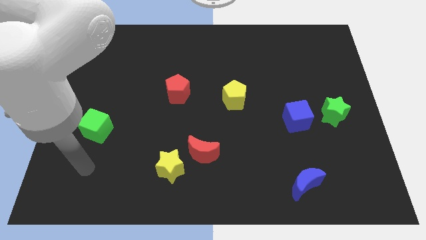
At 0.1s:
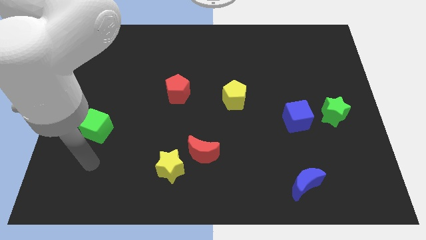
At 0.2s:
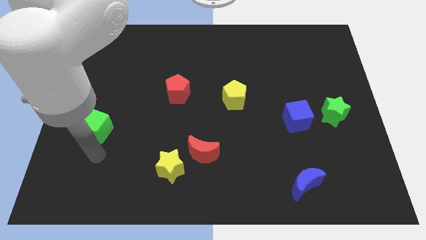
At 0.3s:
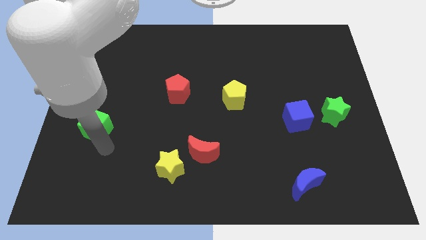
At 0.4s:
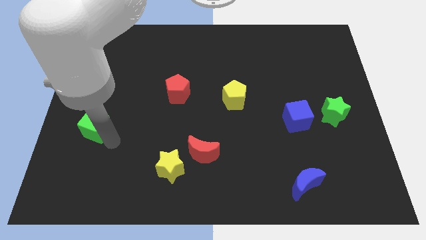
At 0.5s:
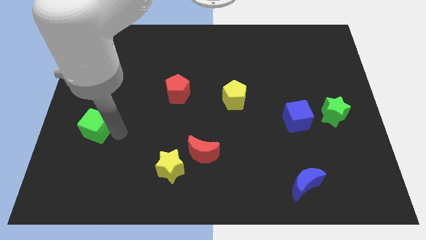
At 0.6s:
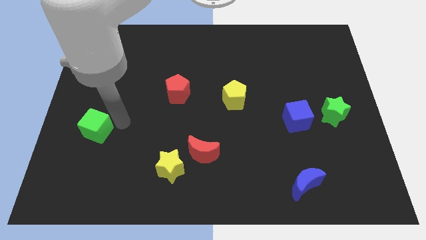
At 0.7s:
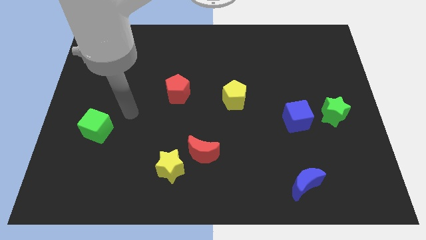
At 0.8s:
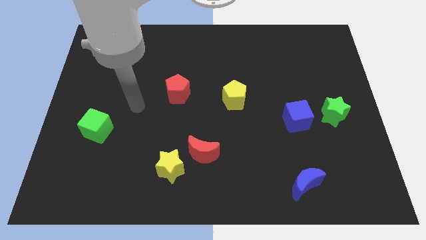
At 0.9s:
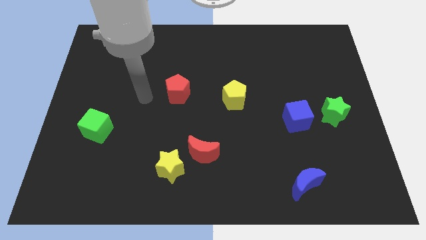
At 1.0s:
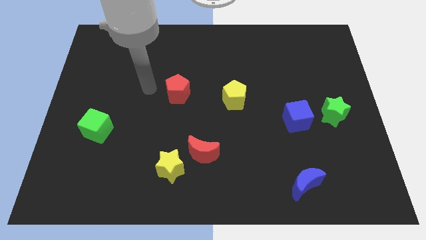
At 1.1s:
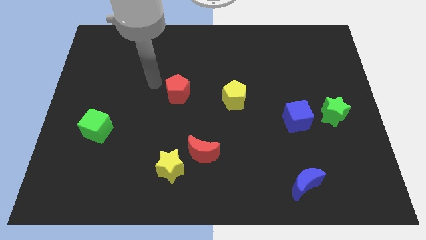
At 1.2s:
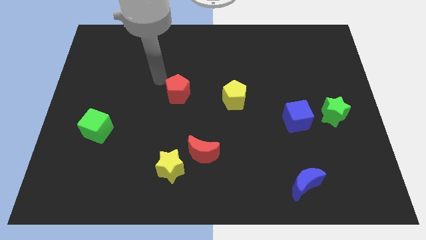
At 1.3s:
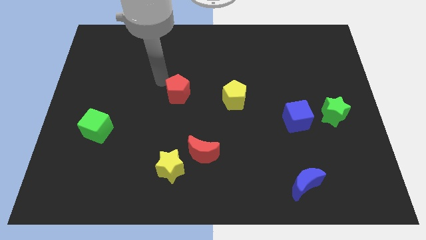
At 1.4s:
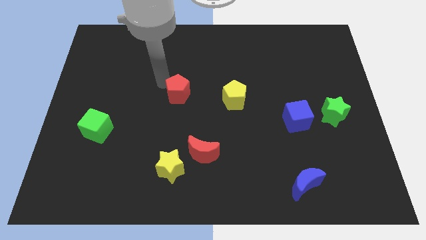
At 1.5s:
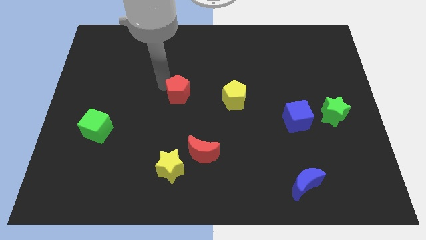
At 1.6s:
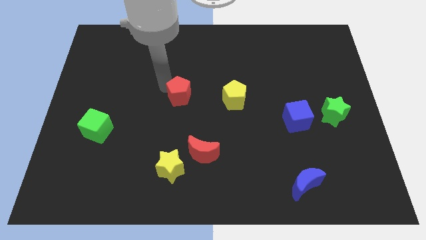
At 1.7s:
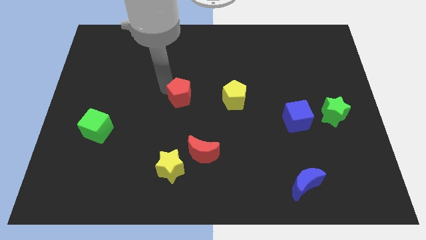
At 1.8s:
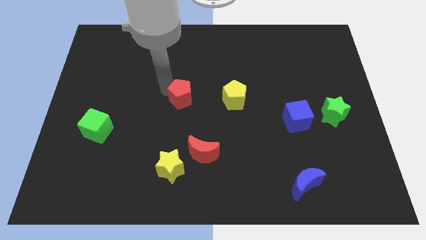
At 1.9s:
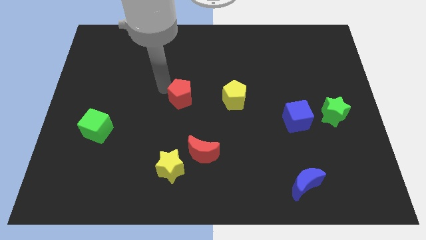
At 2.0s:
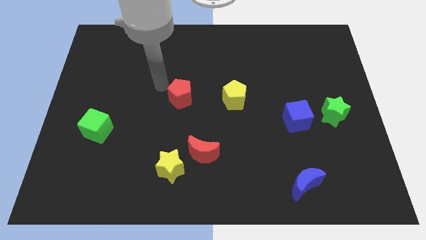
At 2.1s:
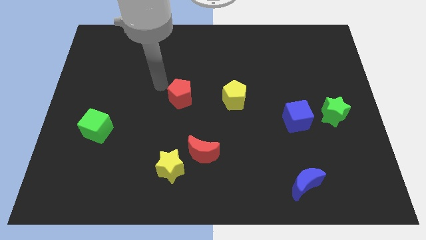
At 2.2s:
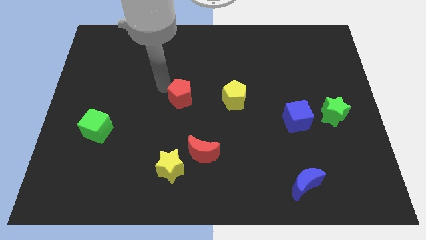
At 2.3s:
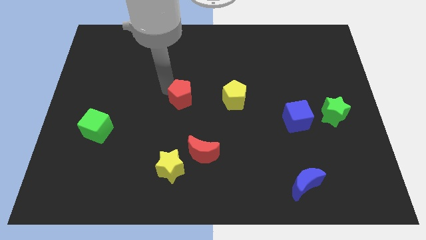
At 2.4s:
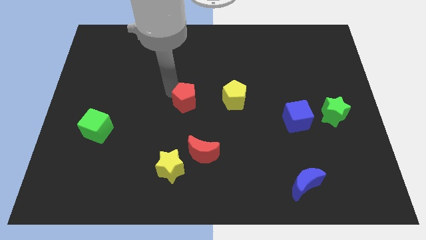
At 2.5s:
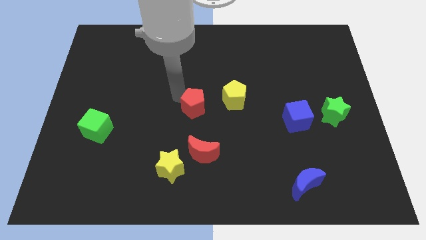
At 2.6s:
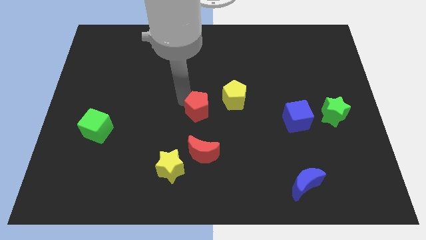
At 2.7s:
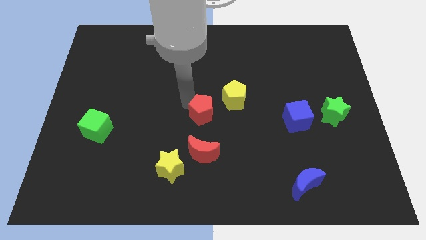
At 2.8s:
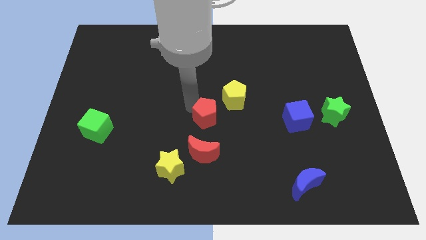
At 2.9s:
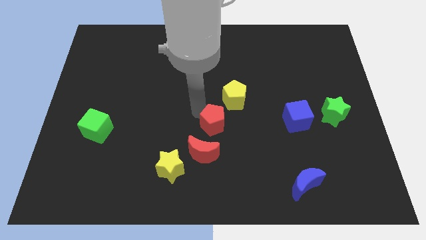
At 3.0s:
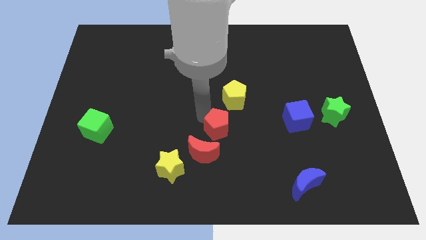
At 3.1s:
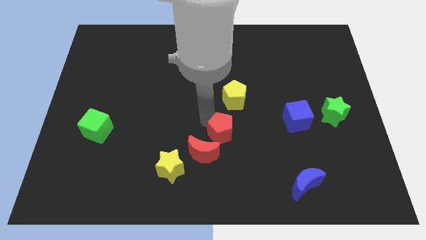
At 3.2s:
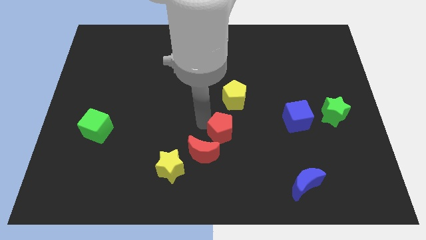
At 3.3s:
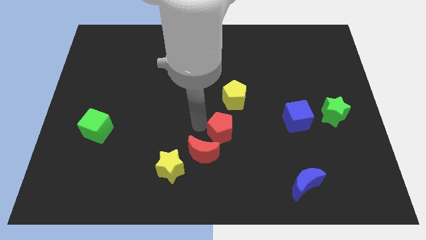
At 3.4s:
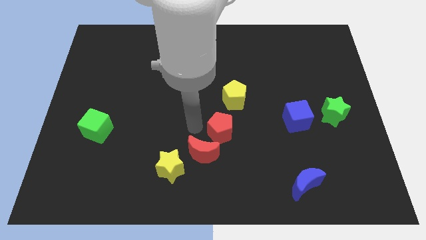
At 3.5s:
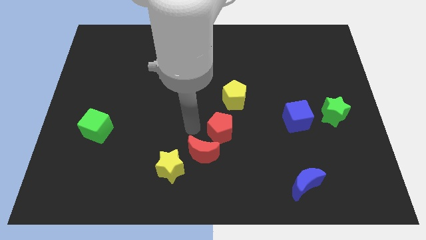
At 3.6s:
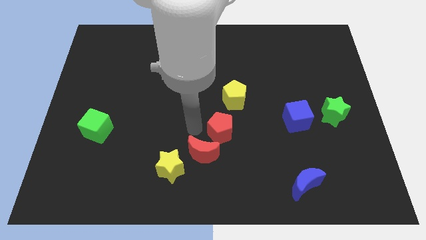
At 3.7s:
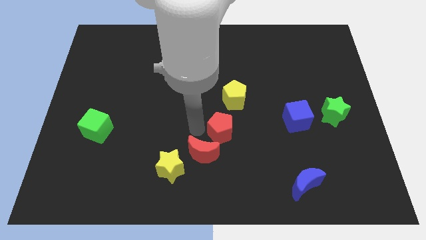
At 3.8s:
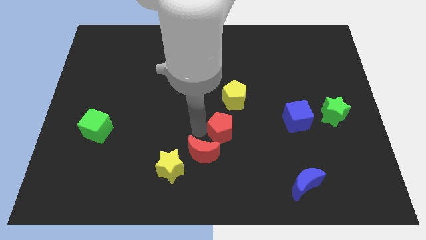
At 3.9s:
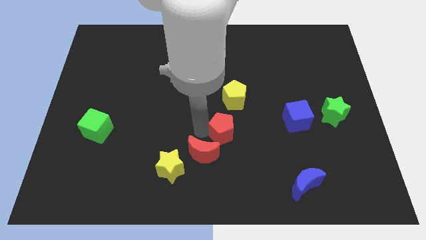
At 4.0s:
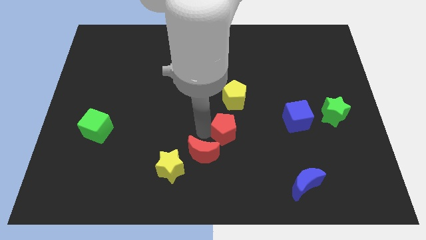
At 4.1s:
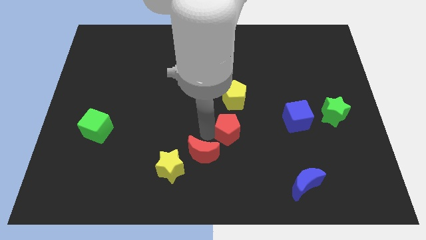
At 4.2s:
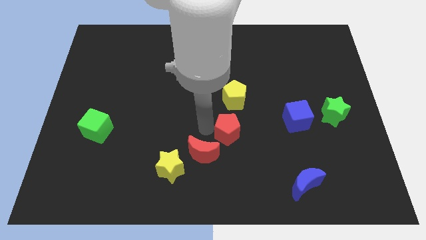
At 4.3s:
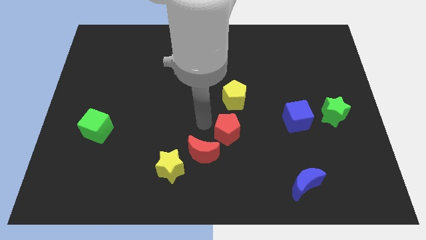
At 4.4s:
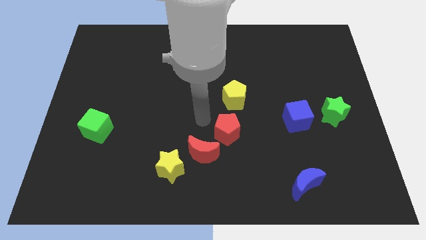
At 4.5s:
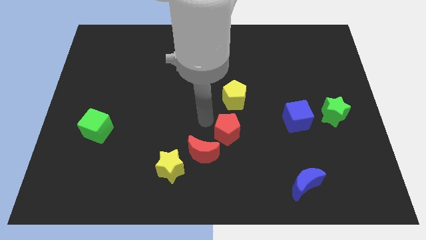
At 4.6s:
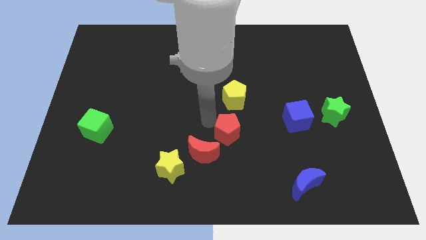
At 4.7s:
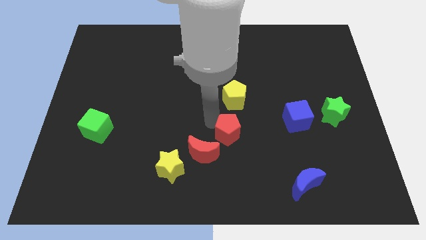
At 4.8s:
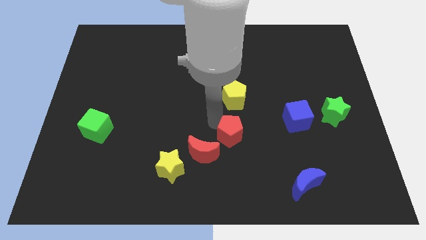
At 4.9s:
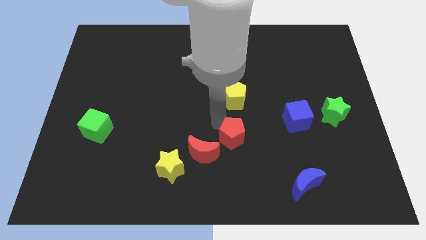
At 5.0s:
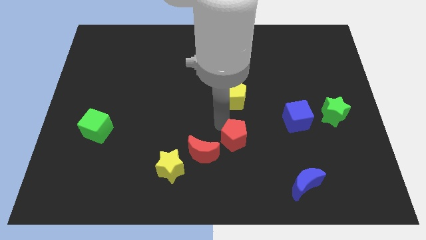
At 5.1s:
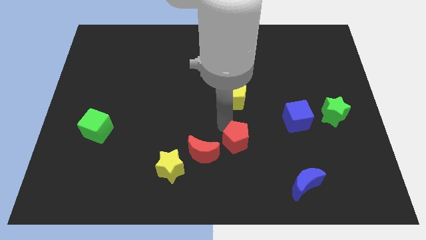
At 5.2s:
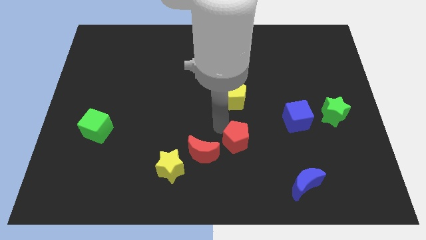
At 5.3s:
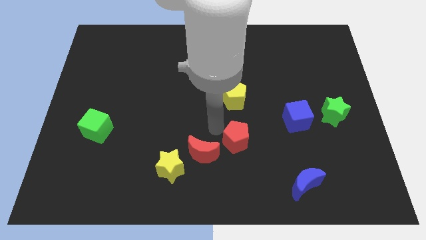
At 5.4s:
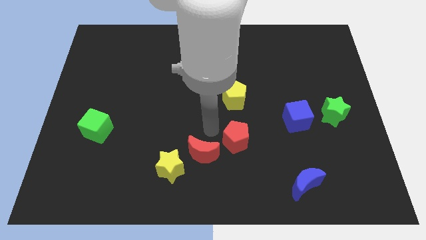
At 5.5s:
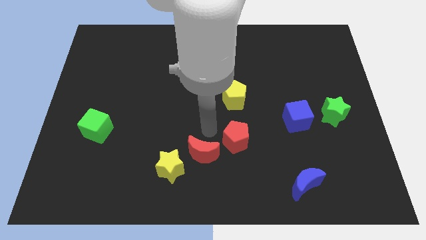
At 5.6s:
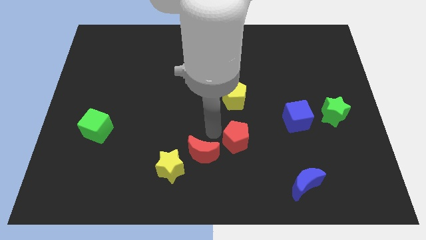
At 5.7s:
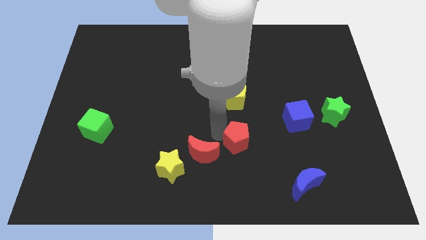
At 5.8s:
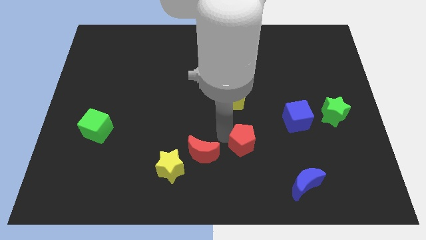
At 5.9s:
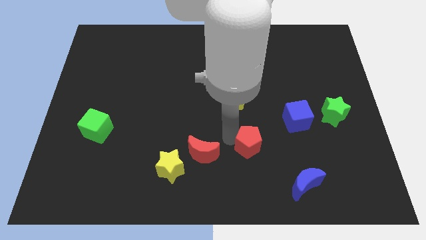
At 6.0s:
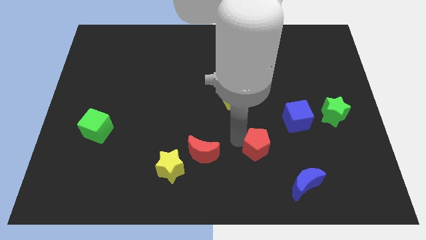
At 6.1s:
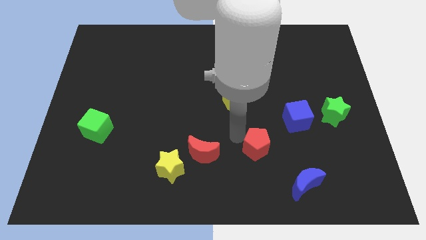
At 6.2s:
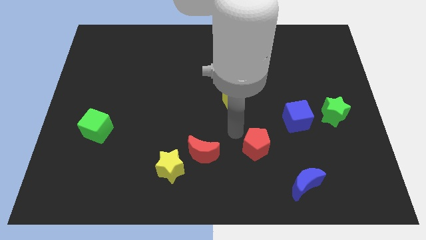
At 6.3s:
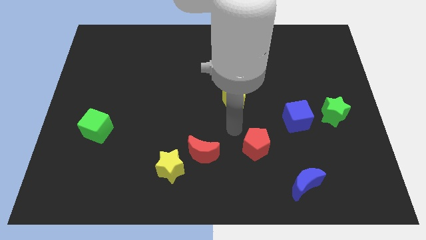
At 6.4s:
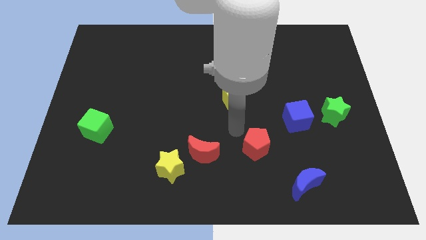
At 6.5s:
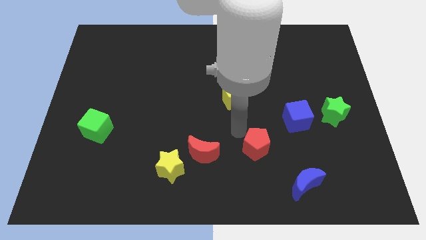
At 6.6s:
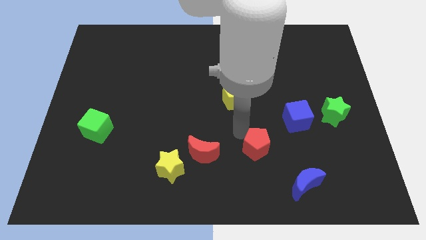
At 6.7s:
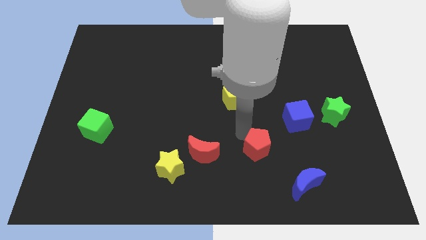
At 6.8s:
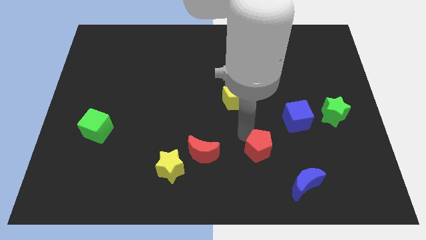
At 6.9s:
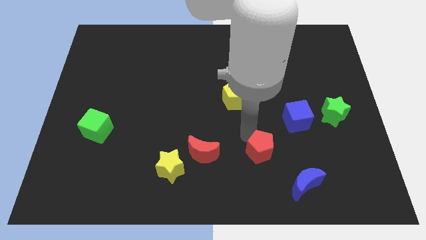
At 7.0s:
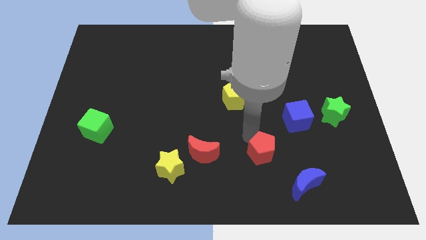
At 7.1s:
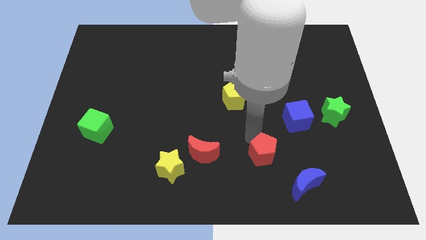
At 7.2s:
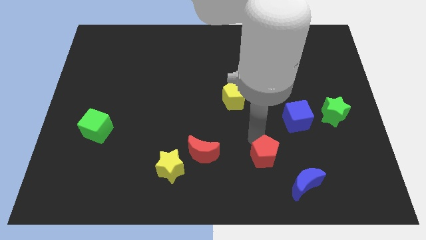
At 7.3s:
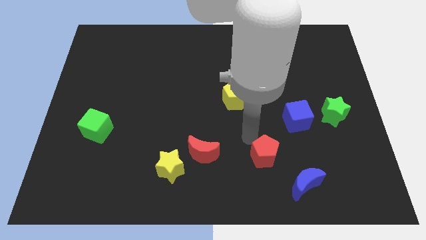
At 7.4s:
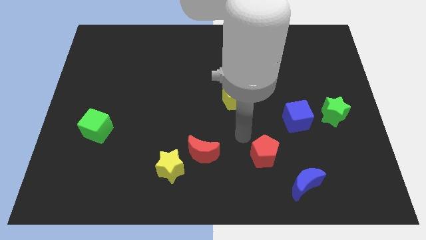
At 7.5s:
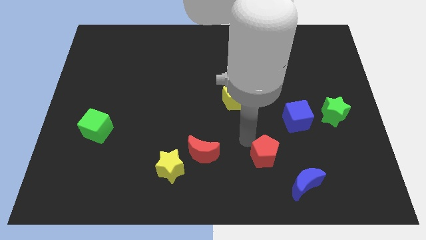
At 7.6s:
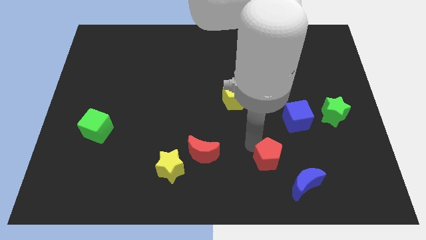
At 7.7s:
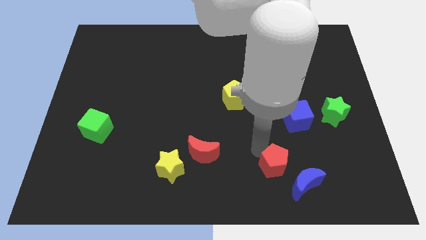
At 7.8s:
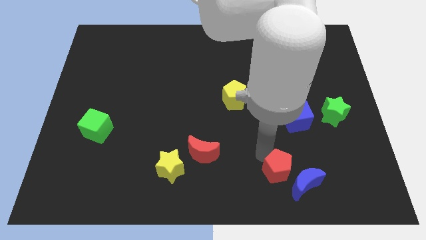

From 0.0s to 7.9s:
slide the red pentagon close to the blue moon
